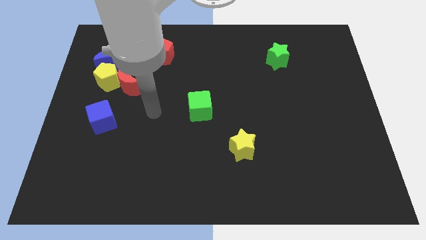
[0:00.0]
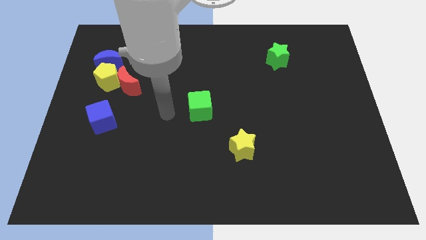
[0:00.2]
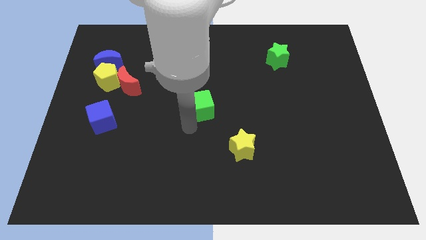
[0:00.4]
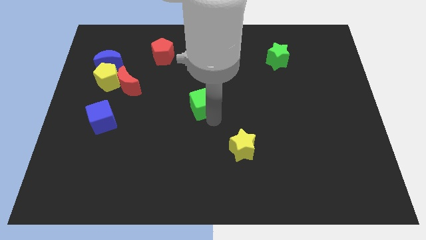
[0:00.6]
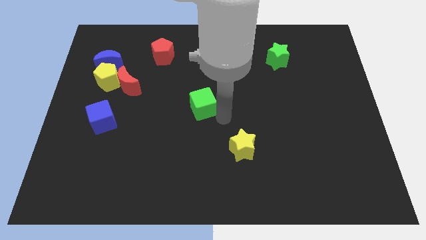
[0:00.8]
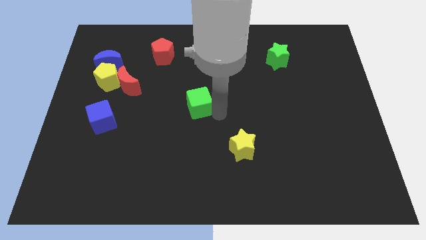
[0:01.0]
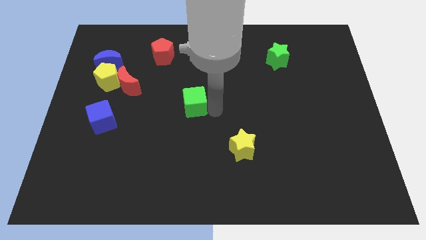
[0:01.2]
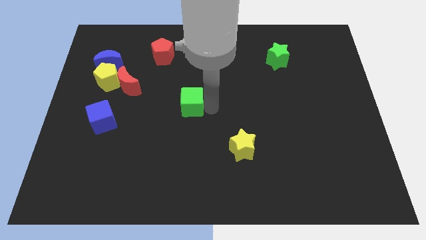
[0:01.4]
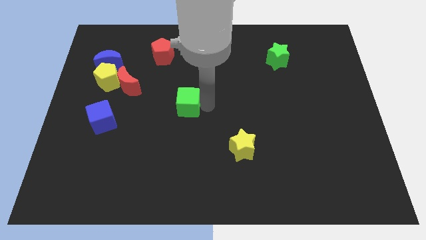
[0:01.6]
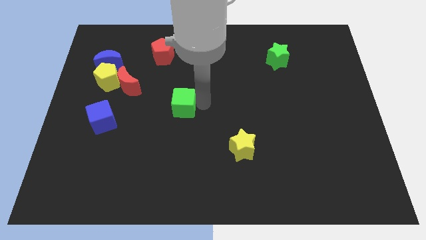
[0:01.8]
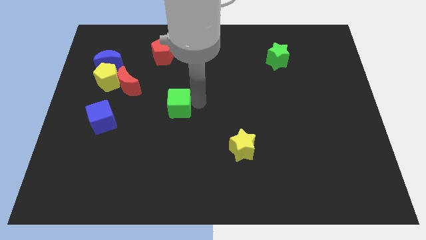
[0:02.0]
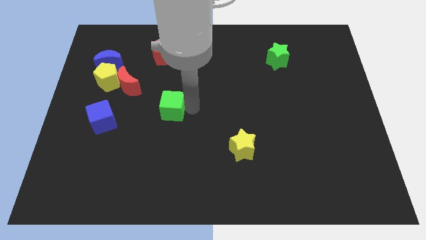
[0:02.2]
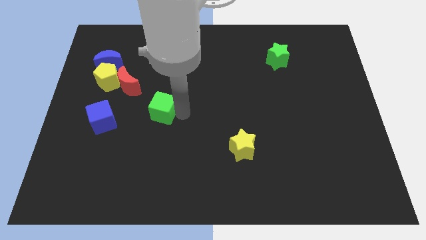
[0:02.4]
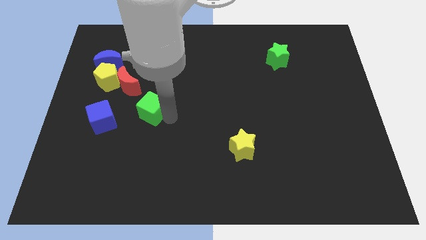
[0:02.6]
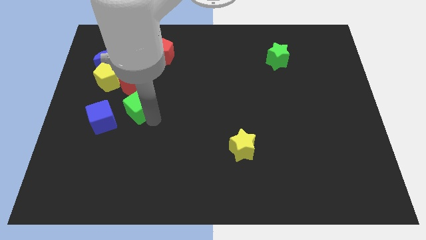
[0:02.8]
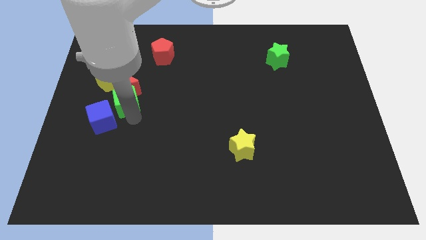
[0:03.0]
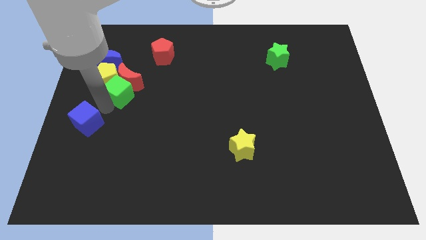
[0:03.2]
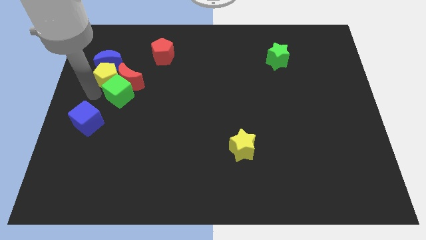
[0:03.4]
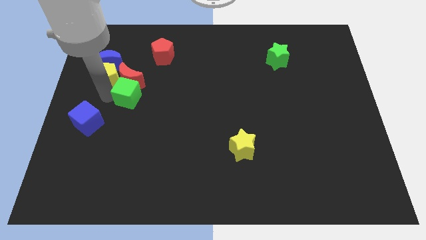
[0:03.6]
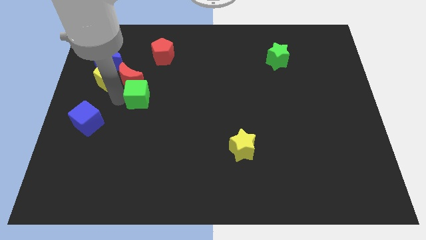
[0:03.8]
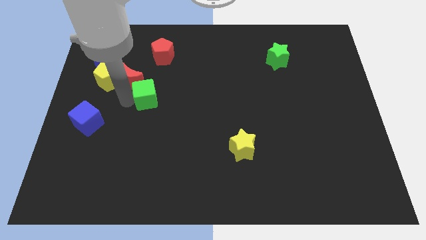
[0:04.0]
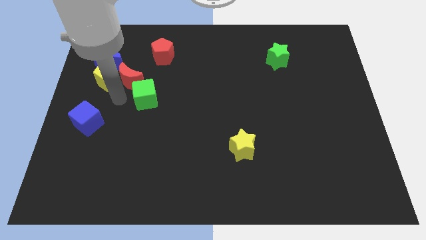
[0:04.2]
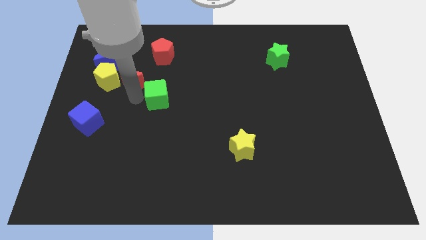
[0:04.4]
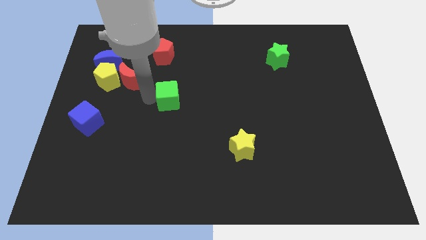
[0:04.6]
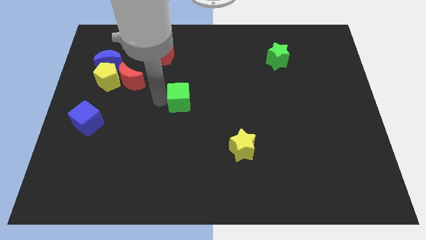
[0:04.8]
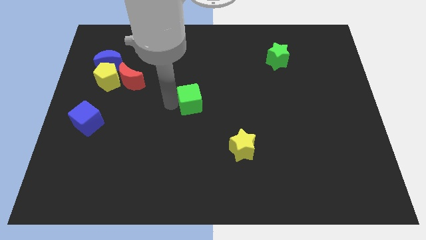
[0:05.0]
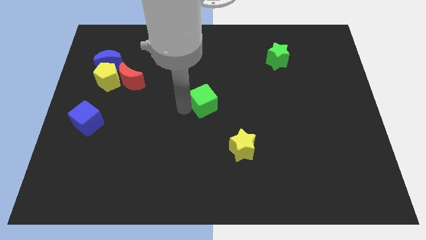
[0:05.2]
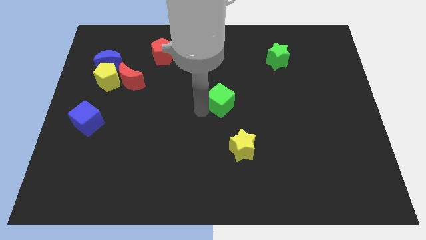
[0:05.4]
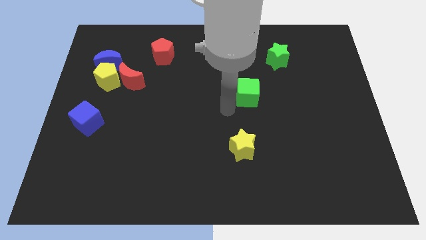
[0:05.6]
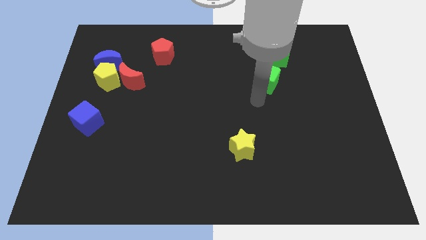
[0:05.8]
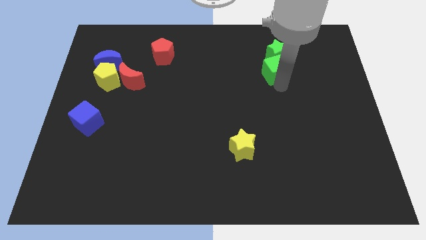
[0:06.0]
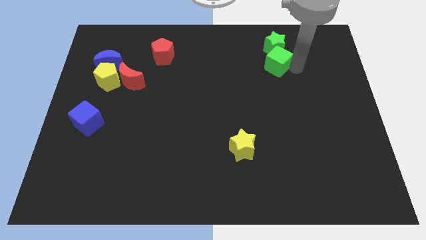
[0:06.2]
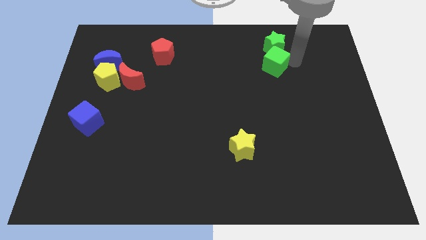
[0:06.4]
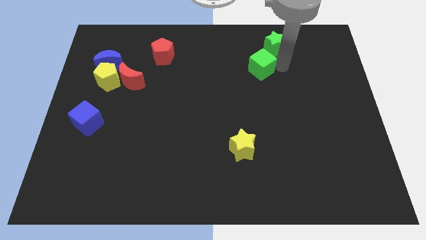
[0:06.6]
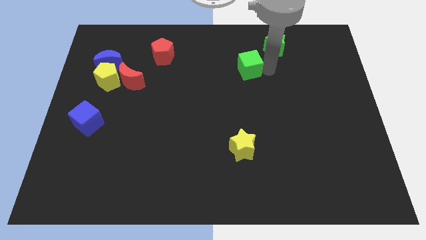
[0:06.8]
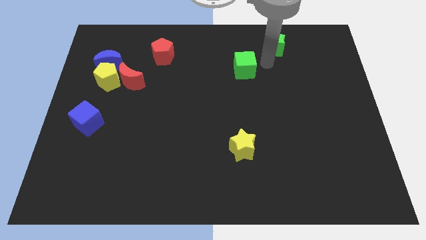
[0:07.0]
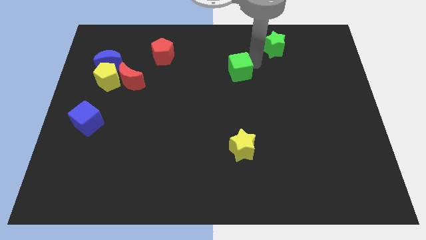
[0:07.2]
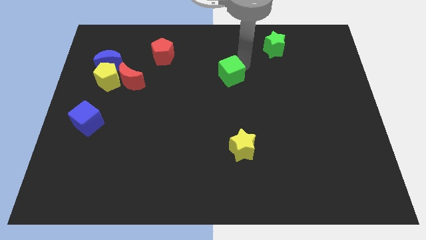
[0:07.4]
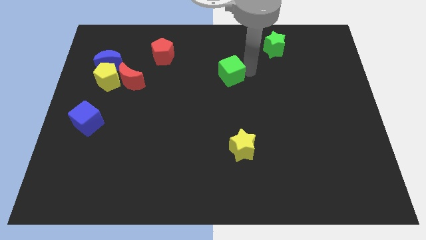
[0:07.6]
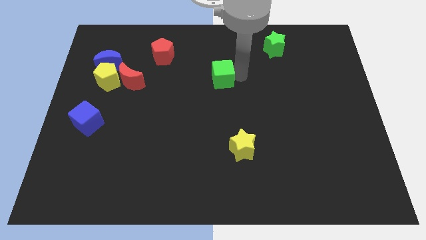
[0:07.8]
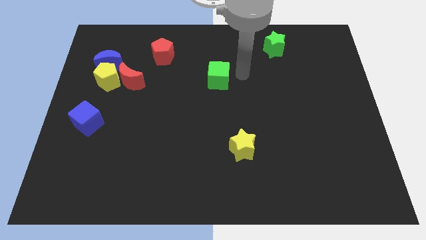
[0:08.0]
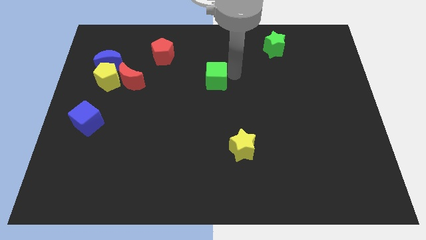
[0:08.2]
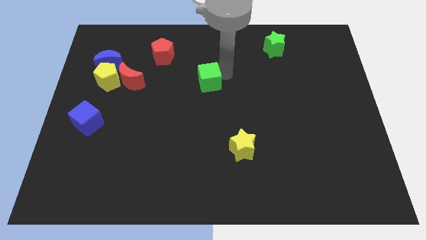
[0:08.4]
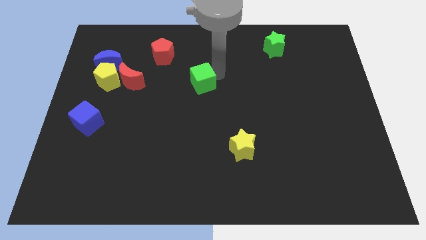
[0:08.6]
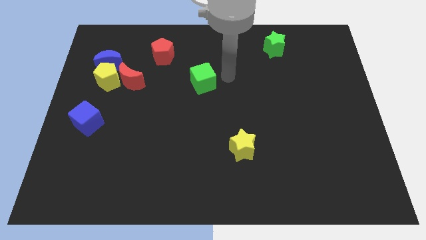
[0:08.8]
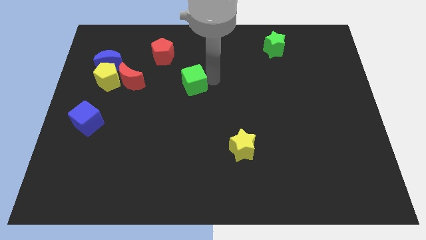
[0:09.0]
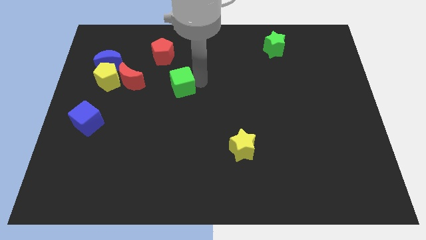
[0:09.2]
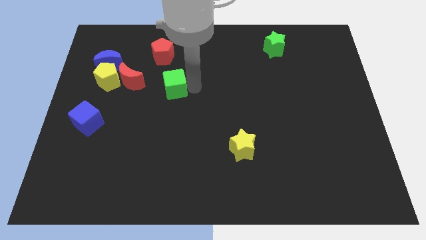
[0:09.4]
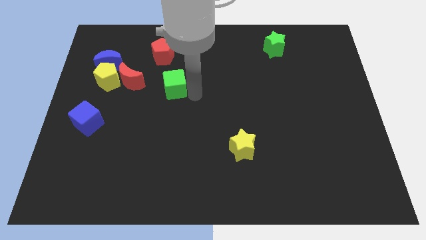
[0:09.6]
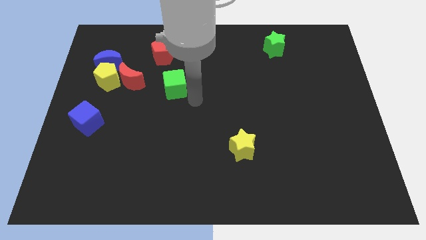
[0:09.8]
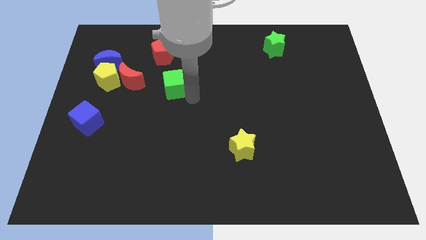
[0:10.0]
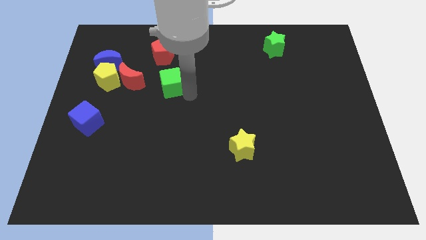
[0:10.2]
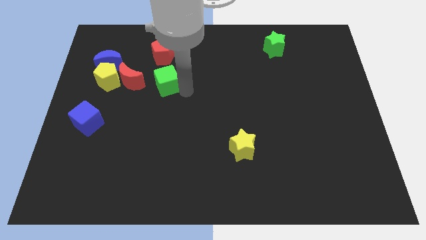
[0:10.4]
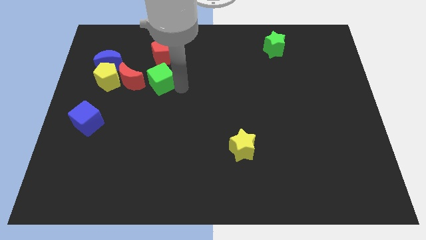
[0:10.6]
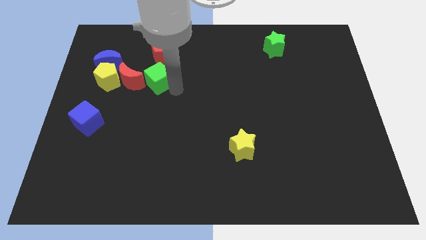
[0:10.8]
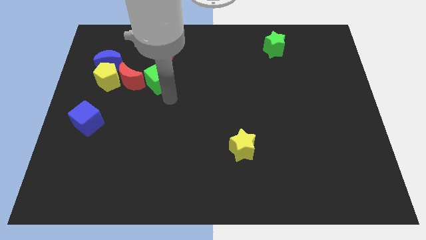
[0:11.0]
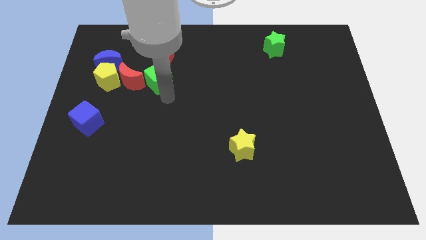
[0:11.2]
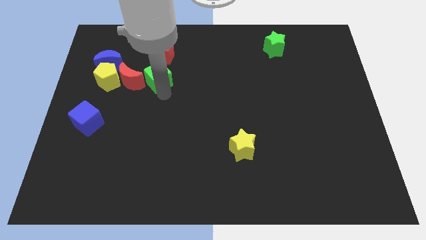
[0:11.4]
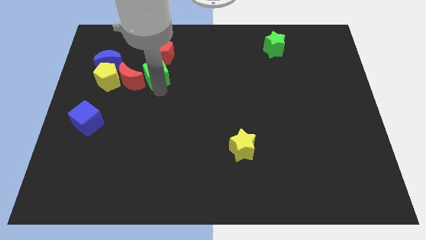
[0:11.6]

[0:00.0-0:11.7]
put the green cube right of the blue moon
